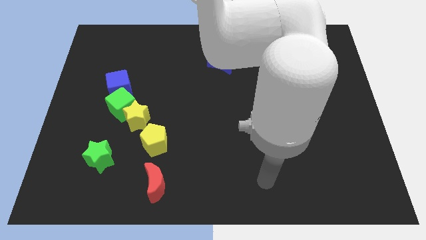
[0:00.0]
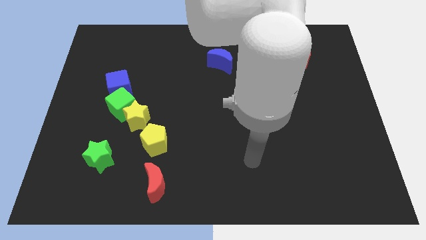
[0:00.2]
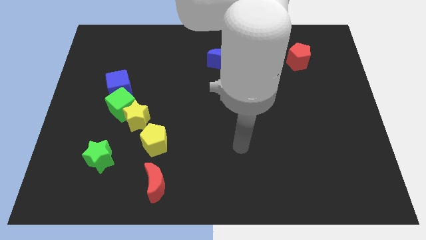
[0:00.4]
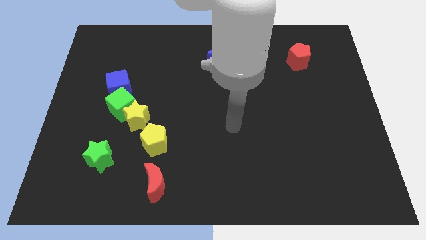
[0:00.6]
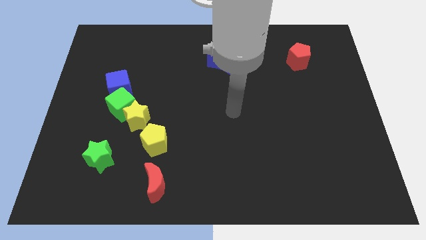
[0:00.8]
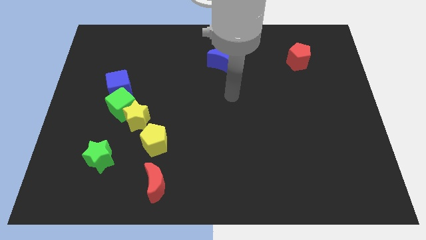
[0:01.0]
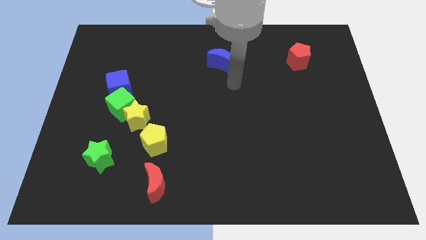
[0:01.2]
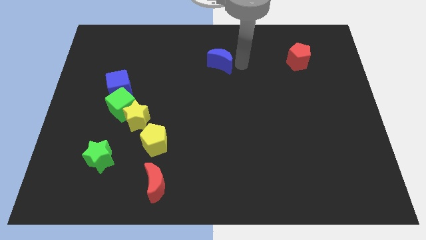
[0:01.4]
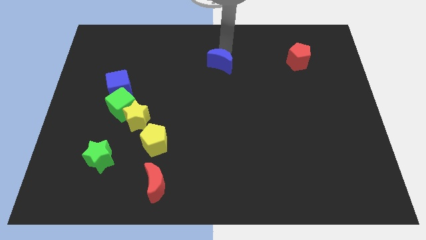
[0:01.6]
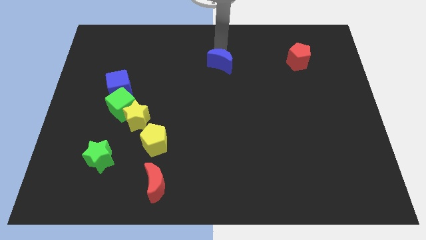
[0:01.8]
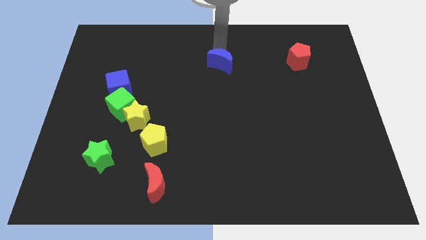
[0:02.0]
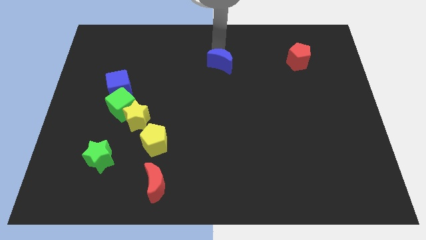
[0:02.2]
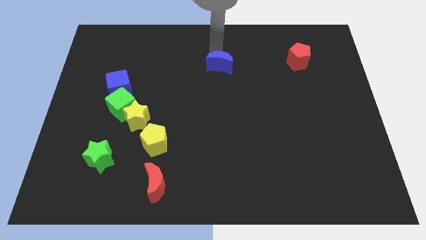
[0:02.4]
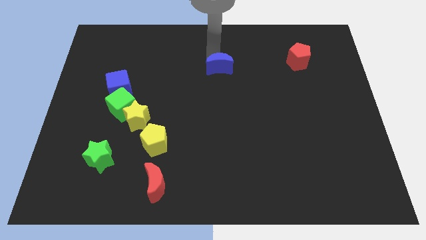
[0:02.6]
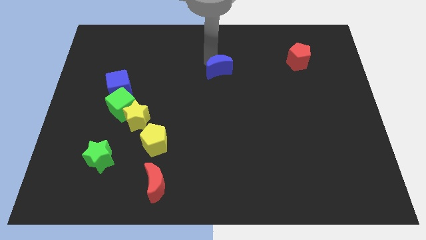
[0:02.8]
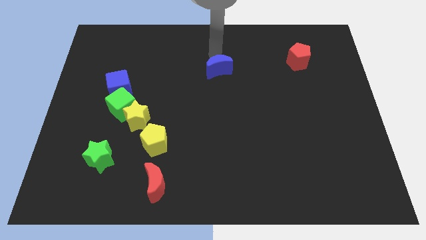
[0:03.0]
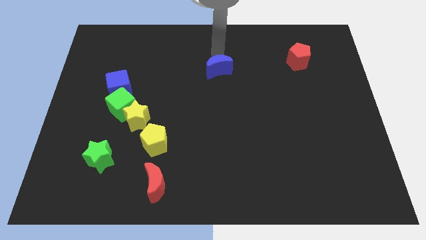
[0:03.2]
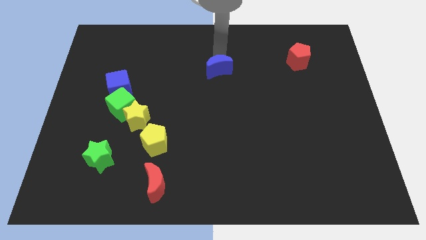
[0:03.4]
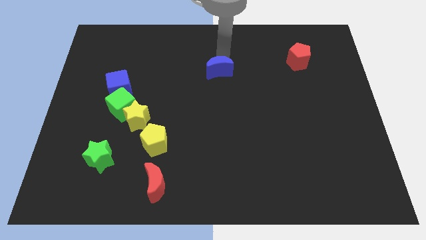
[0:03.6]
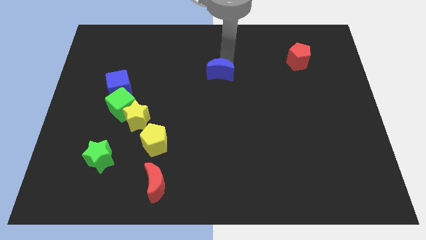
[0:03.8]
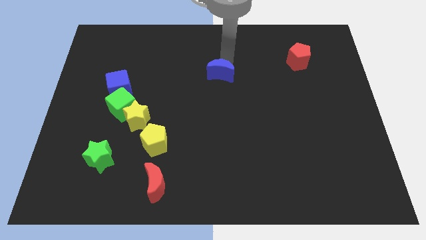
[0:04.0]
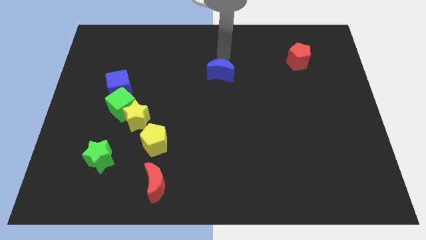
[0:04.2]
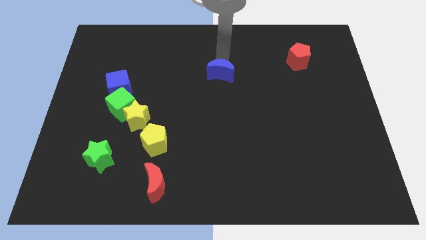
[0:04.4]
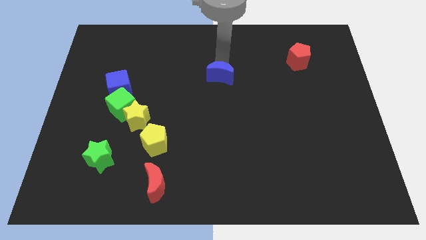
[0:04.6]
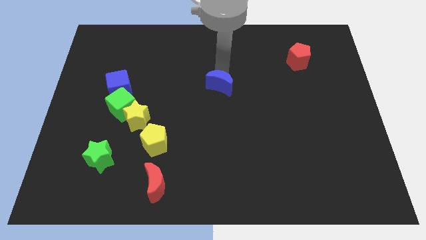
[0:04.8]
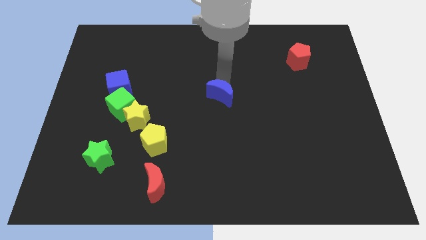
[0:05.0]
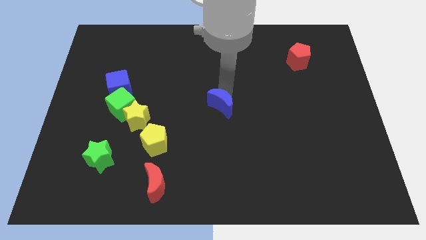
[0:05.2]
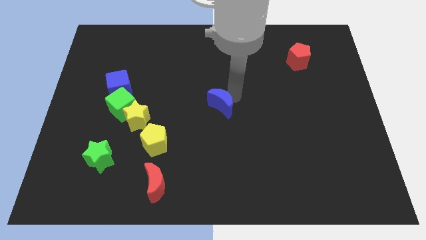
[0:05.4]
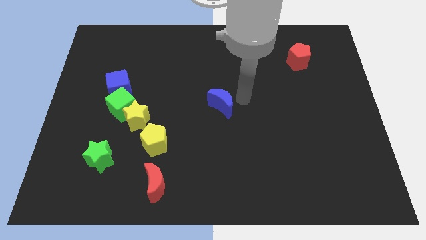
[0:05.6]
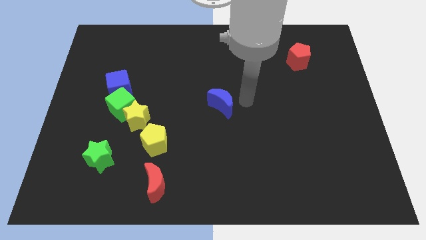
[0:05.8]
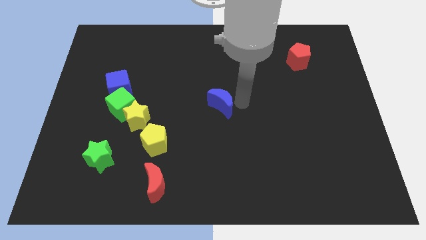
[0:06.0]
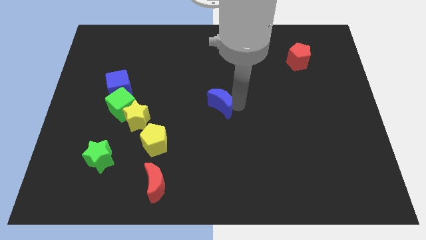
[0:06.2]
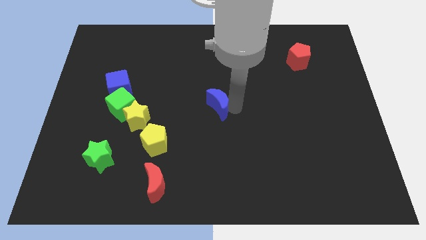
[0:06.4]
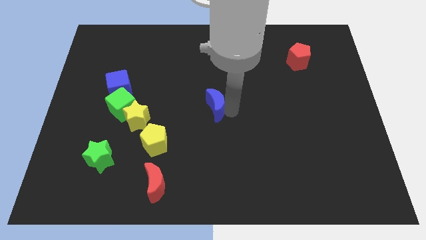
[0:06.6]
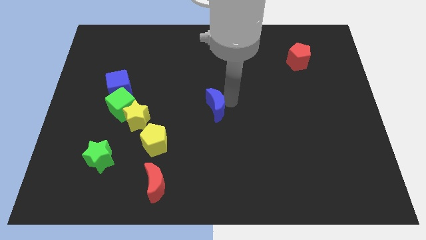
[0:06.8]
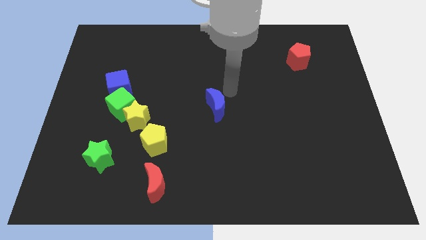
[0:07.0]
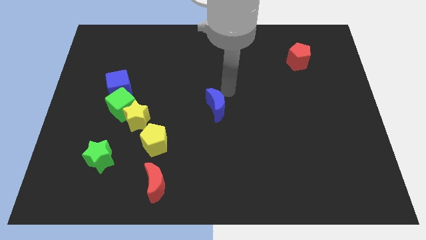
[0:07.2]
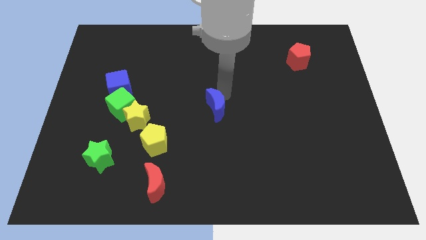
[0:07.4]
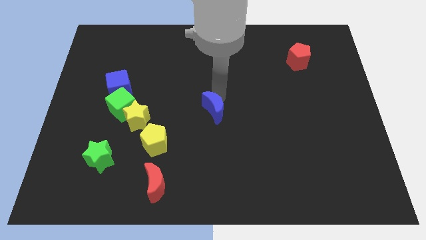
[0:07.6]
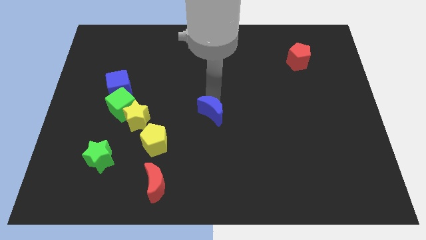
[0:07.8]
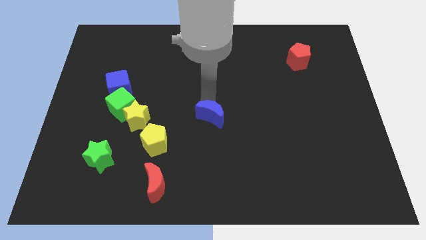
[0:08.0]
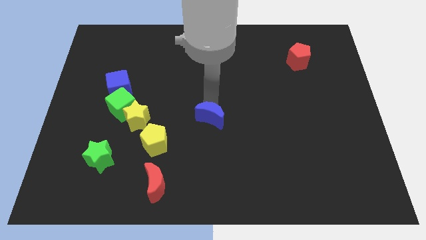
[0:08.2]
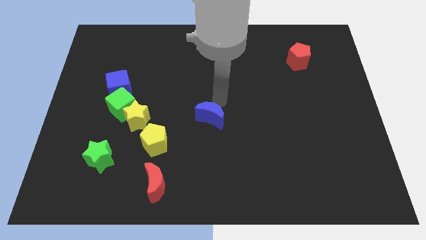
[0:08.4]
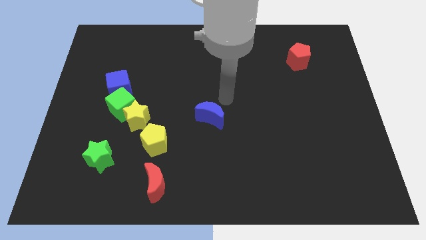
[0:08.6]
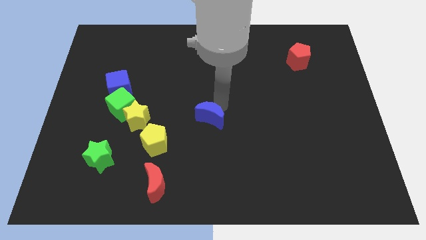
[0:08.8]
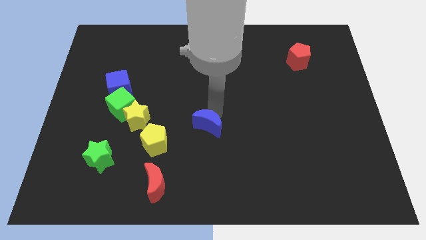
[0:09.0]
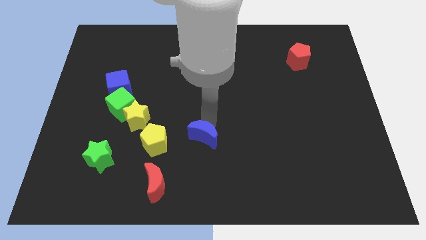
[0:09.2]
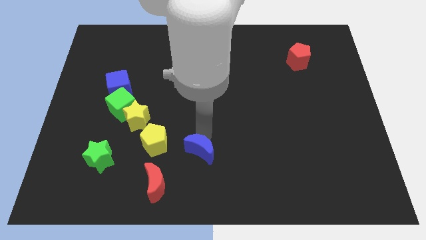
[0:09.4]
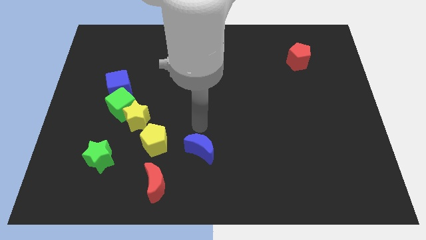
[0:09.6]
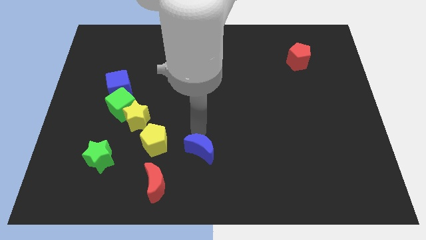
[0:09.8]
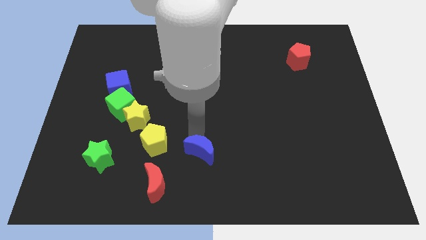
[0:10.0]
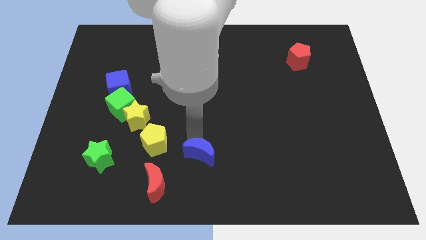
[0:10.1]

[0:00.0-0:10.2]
push the blue moon to the bottom side

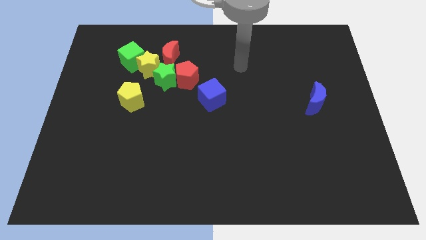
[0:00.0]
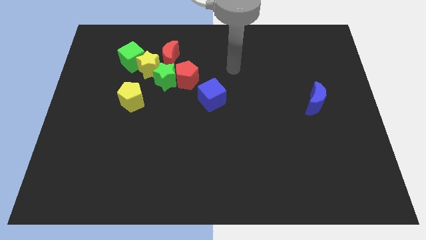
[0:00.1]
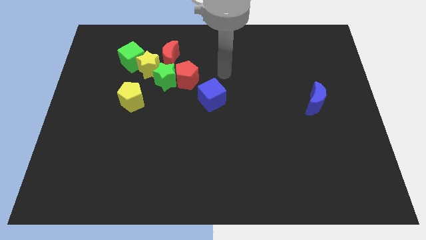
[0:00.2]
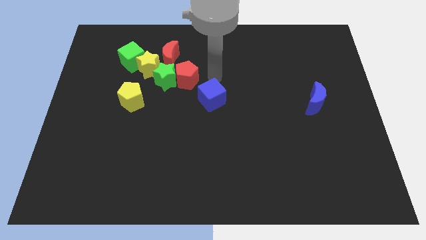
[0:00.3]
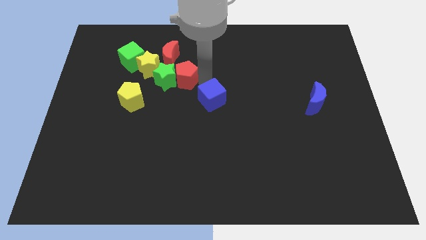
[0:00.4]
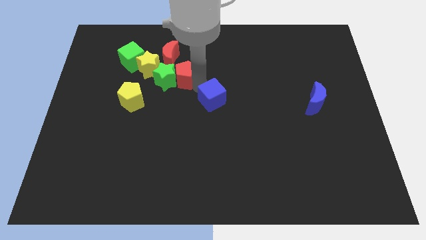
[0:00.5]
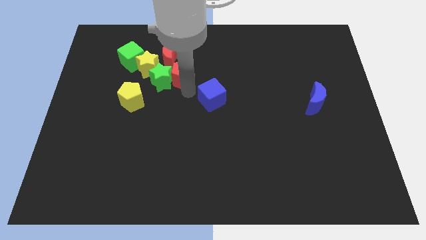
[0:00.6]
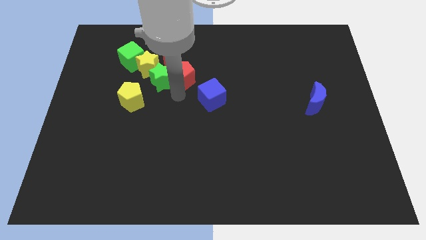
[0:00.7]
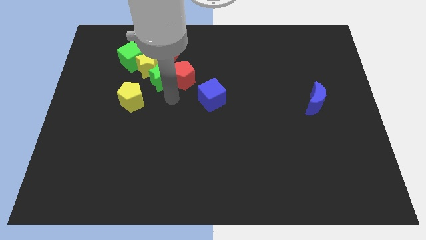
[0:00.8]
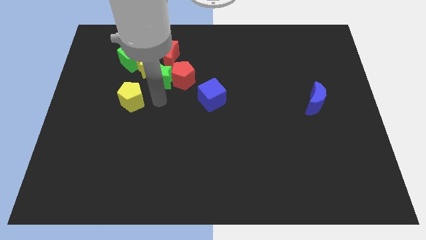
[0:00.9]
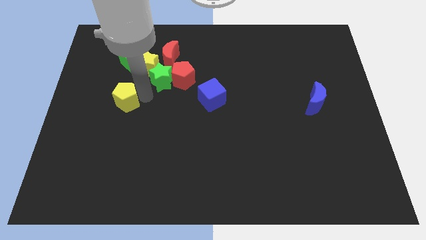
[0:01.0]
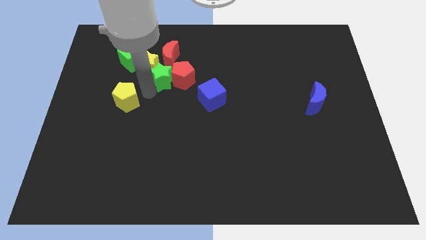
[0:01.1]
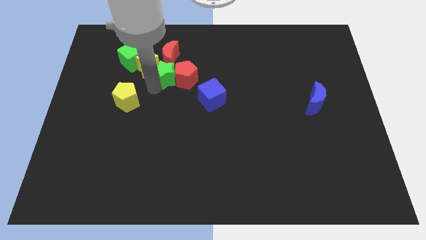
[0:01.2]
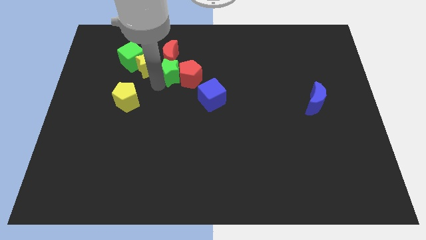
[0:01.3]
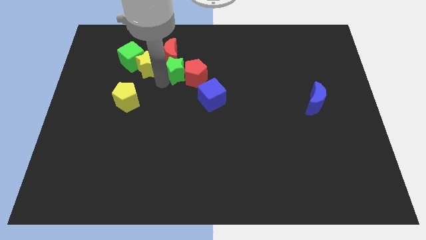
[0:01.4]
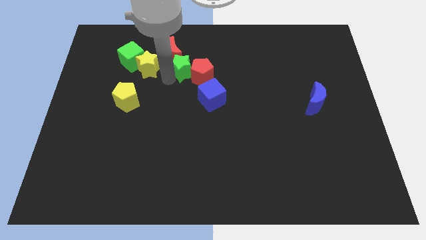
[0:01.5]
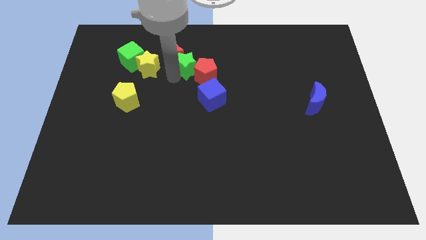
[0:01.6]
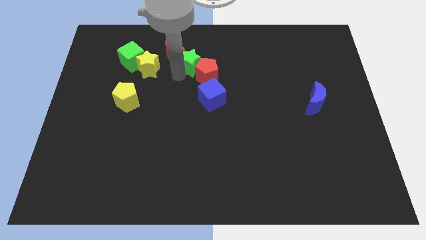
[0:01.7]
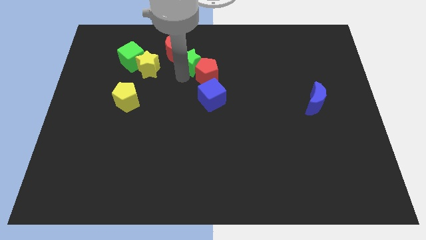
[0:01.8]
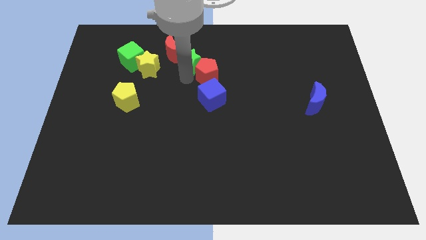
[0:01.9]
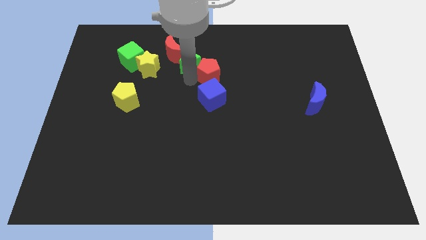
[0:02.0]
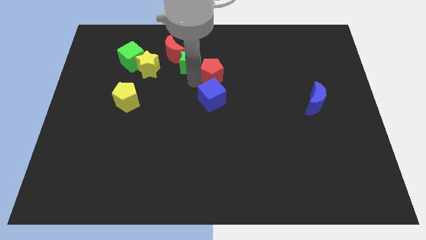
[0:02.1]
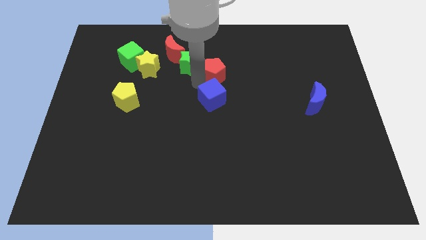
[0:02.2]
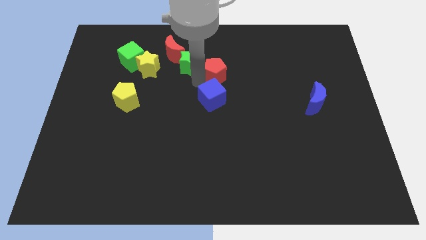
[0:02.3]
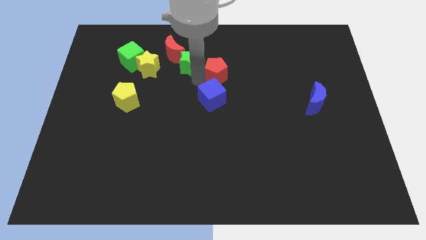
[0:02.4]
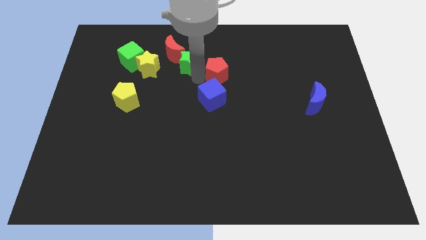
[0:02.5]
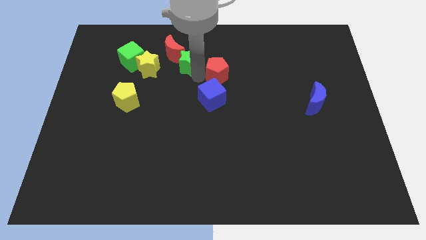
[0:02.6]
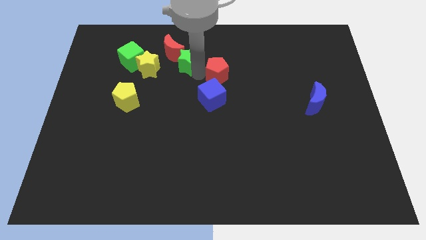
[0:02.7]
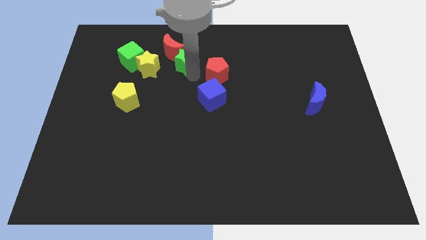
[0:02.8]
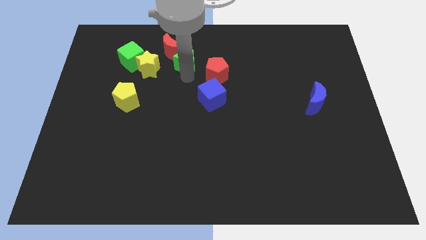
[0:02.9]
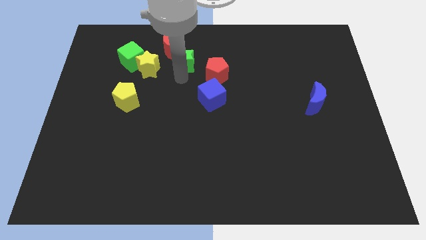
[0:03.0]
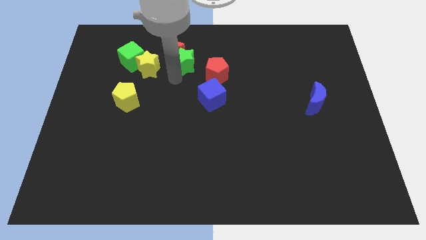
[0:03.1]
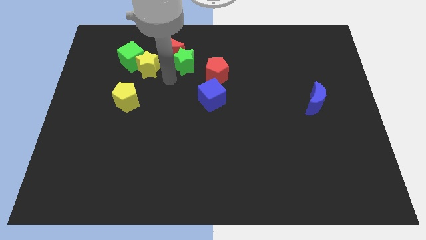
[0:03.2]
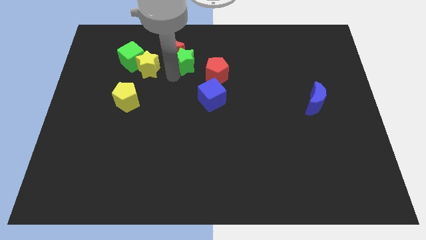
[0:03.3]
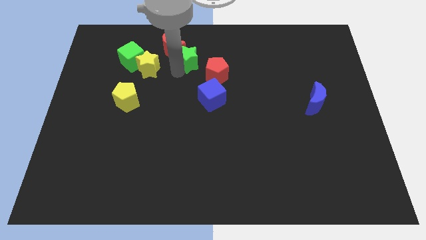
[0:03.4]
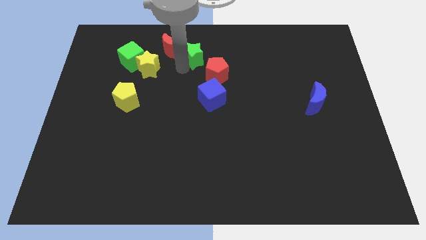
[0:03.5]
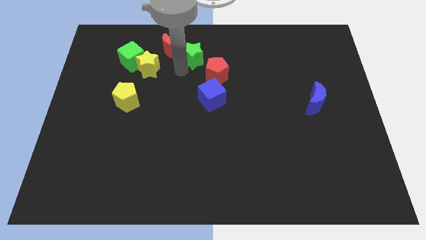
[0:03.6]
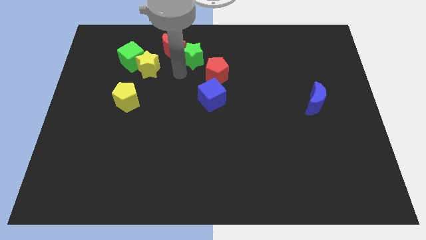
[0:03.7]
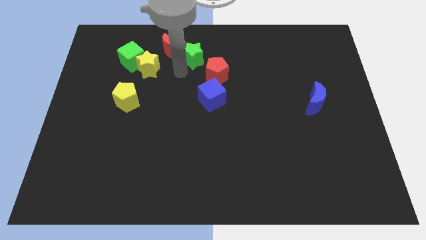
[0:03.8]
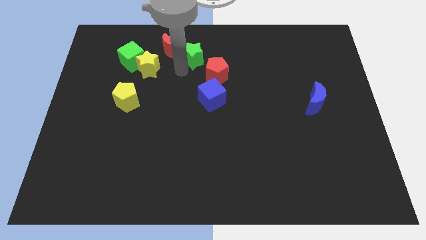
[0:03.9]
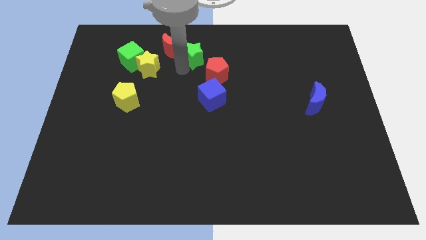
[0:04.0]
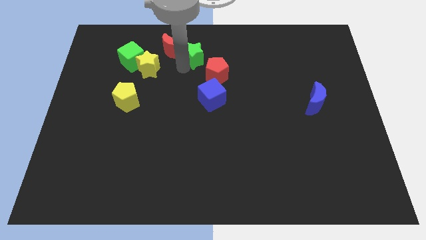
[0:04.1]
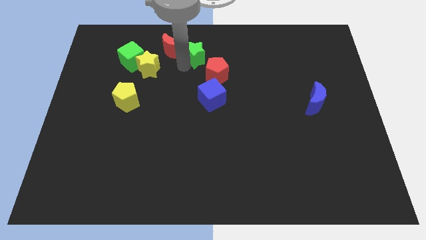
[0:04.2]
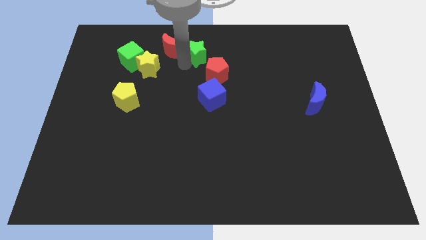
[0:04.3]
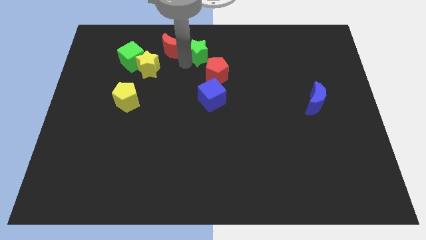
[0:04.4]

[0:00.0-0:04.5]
move the green star to the top
